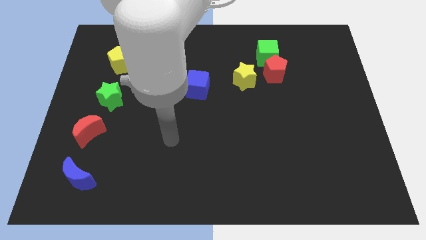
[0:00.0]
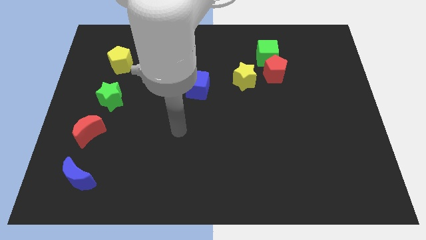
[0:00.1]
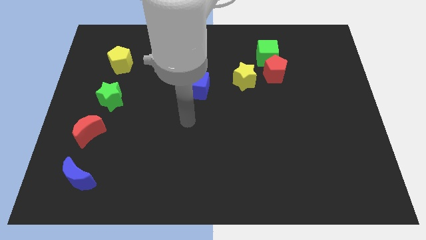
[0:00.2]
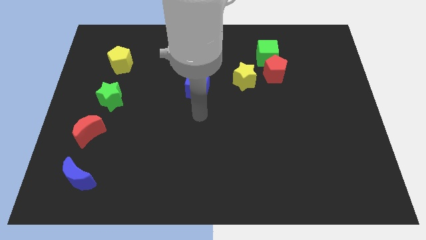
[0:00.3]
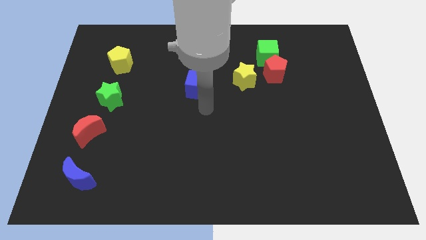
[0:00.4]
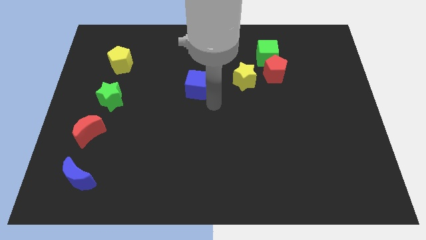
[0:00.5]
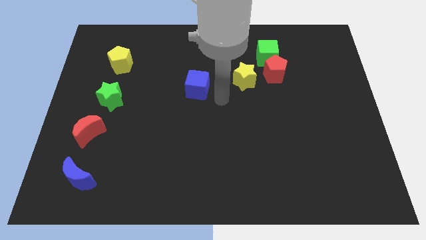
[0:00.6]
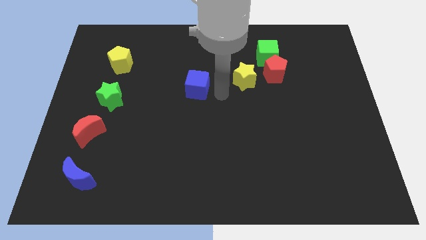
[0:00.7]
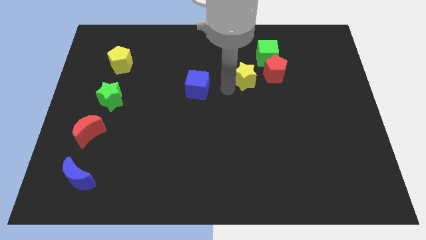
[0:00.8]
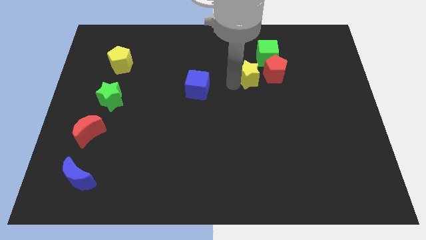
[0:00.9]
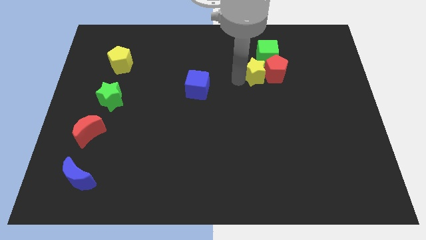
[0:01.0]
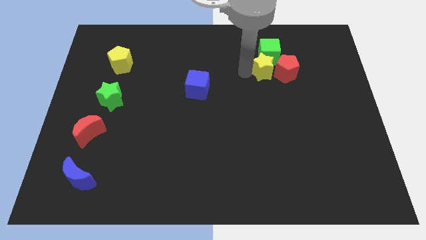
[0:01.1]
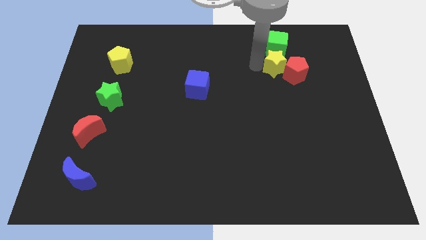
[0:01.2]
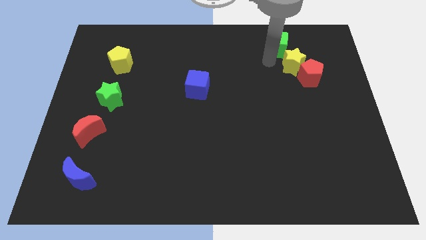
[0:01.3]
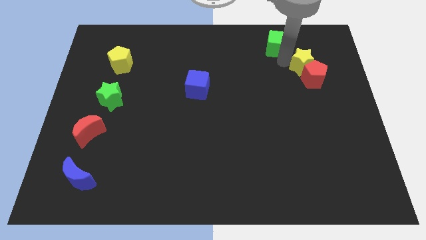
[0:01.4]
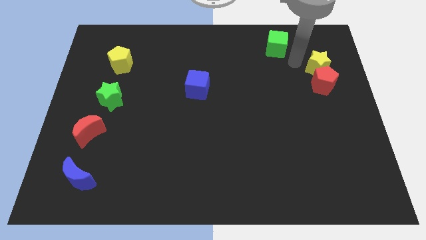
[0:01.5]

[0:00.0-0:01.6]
pull the red pentagon apart from the green cube and yellow star

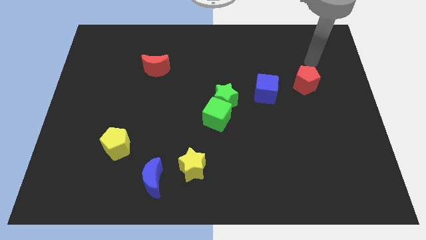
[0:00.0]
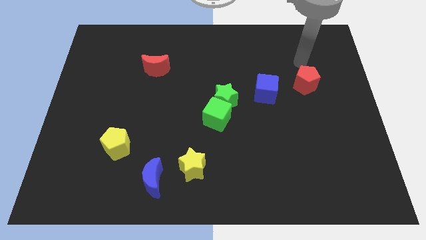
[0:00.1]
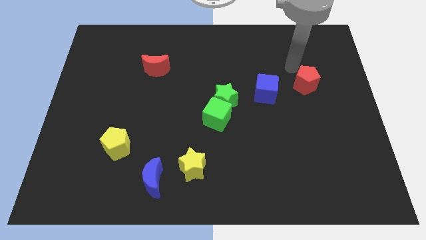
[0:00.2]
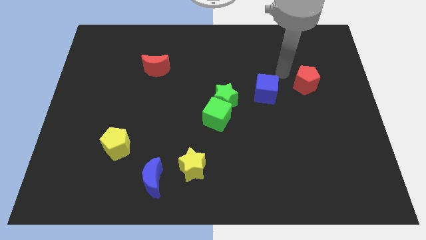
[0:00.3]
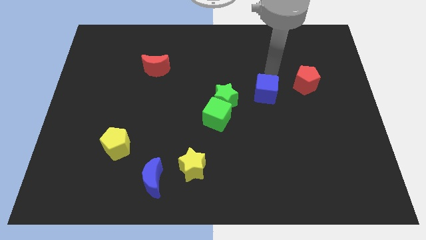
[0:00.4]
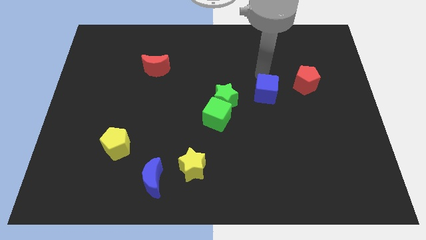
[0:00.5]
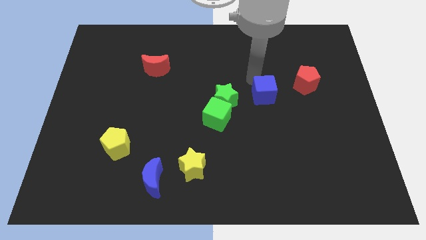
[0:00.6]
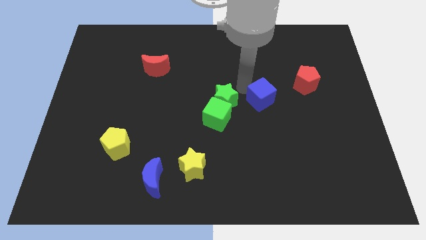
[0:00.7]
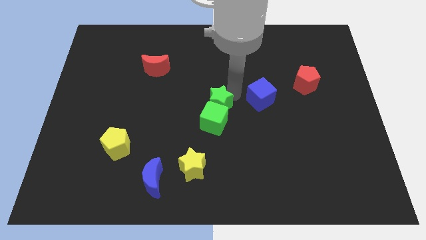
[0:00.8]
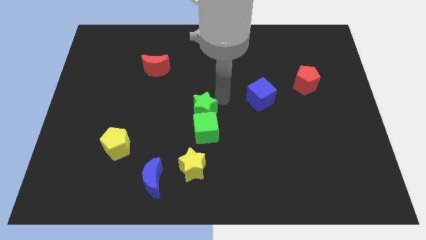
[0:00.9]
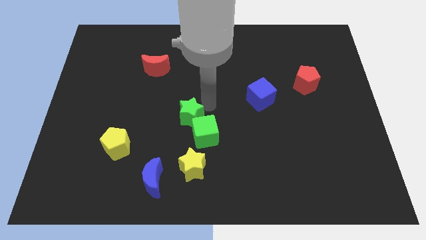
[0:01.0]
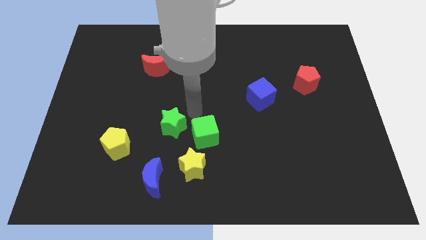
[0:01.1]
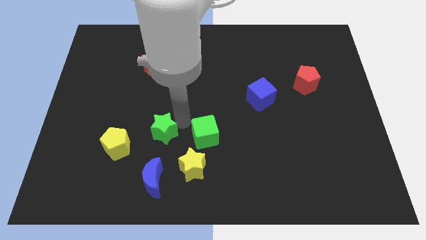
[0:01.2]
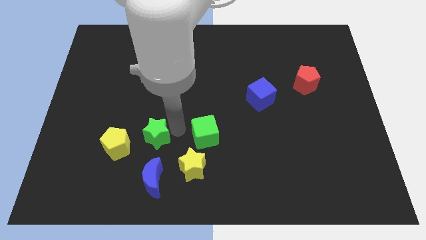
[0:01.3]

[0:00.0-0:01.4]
separate the green cube from the green star

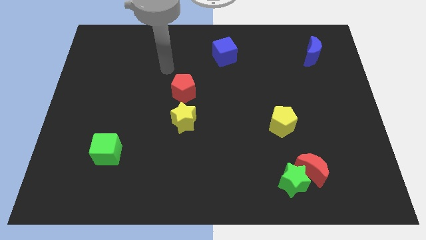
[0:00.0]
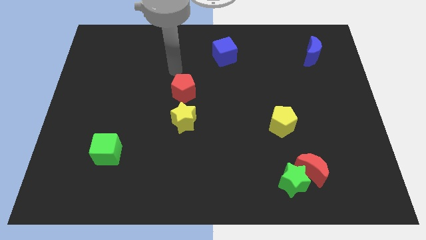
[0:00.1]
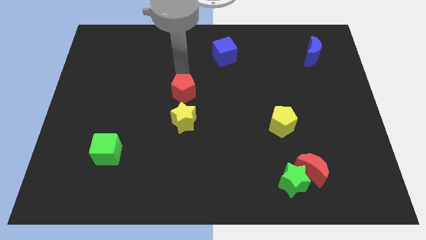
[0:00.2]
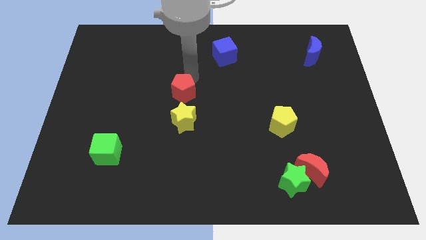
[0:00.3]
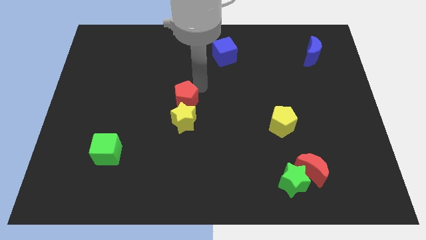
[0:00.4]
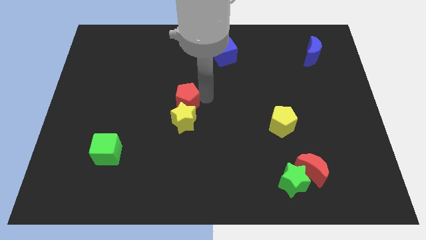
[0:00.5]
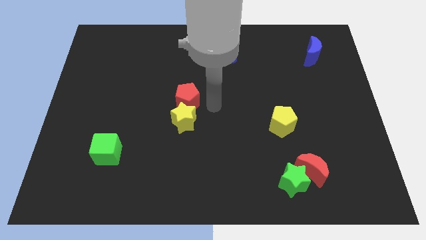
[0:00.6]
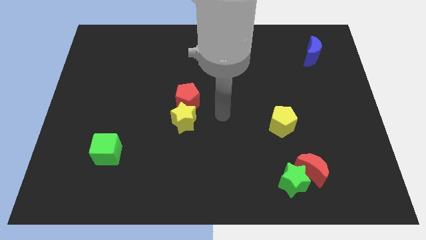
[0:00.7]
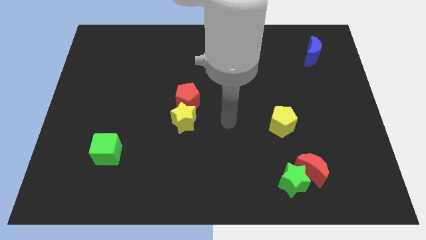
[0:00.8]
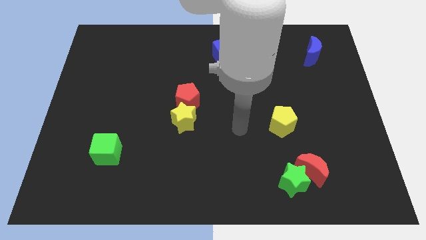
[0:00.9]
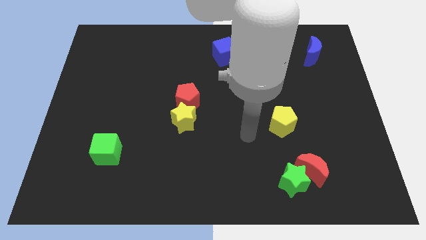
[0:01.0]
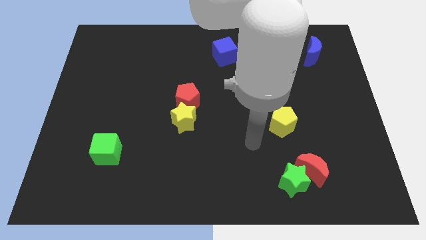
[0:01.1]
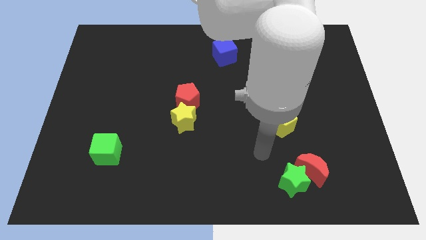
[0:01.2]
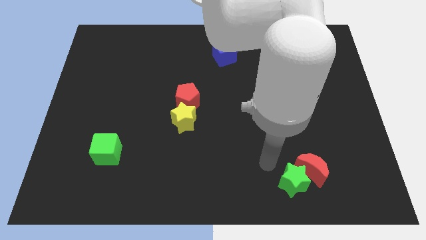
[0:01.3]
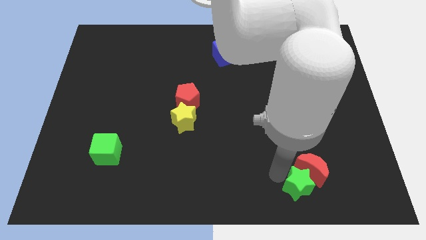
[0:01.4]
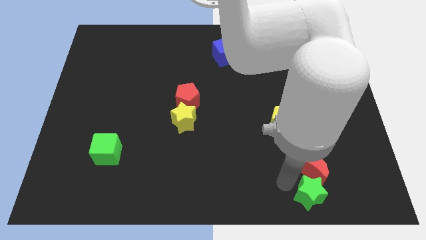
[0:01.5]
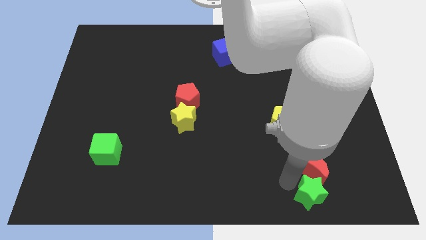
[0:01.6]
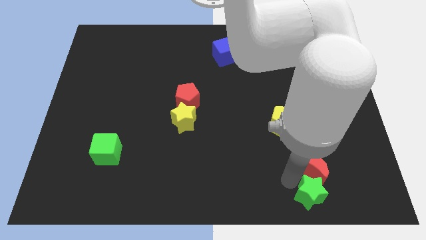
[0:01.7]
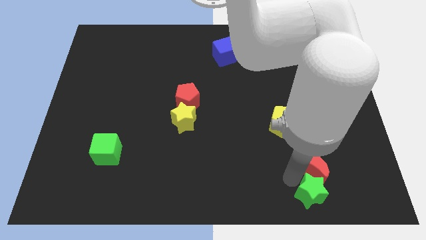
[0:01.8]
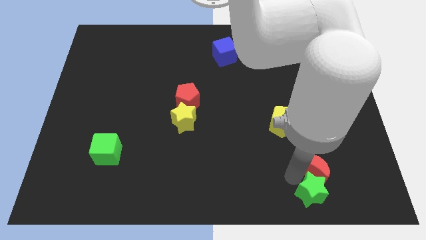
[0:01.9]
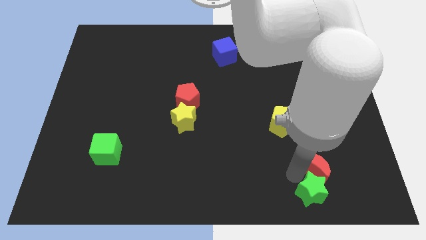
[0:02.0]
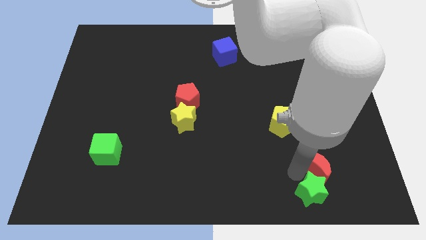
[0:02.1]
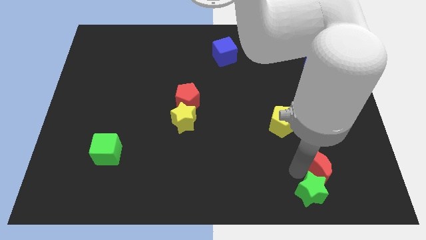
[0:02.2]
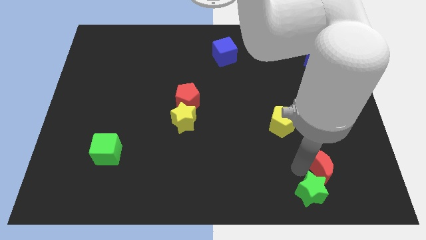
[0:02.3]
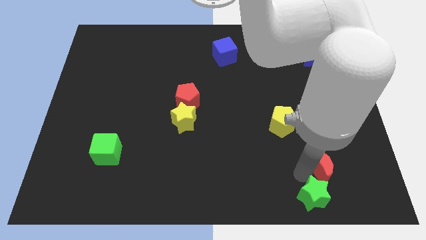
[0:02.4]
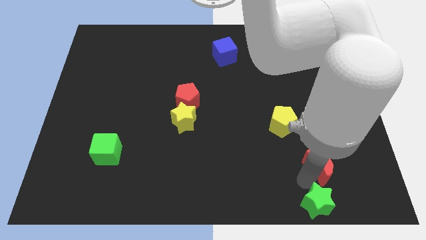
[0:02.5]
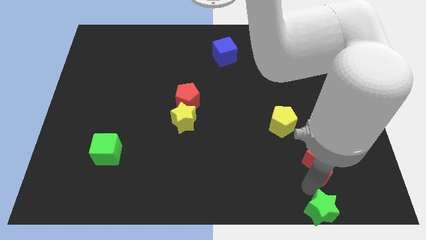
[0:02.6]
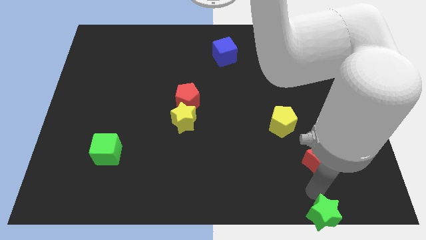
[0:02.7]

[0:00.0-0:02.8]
move the red moon away from the green star

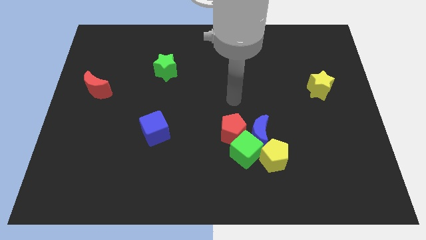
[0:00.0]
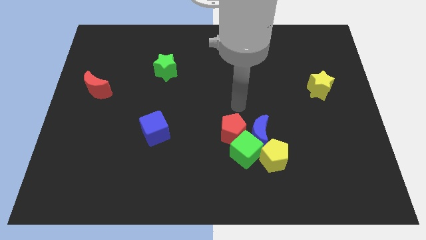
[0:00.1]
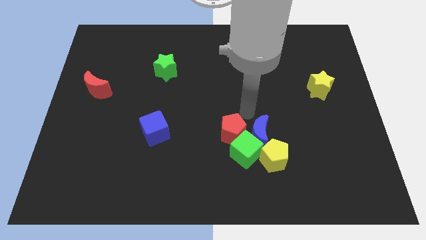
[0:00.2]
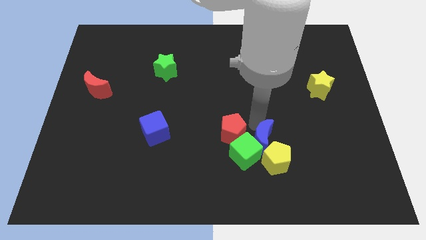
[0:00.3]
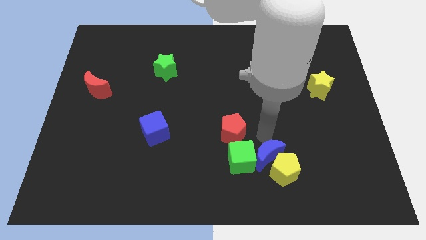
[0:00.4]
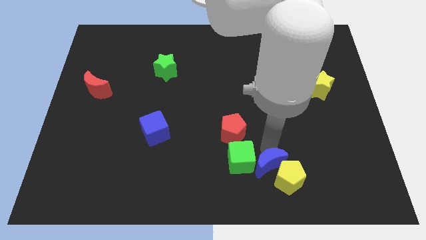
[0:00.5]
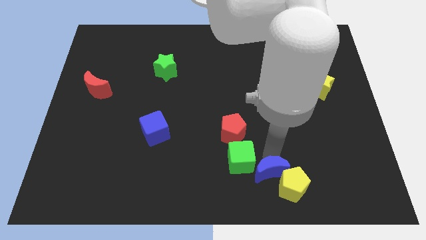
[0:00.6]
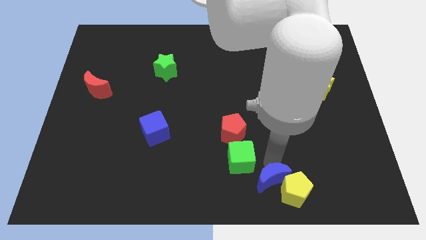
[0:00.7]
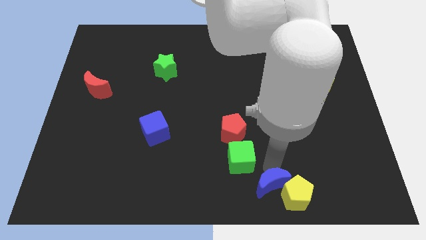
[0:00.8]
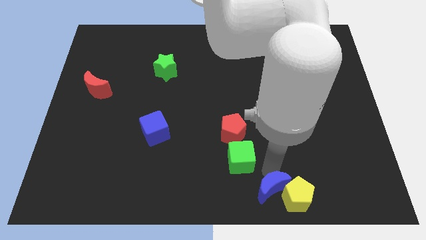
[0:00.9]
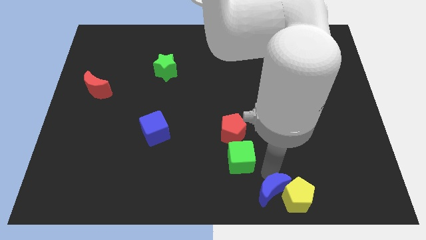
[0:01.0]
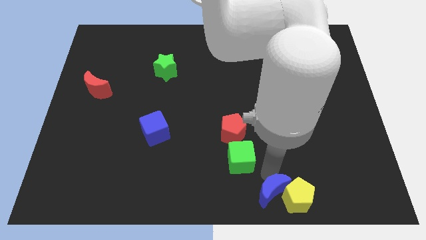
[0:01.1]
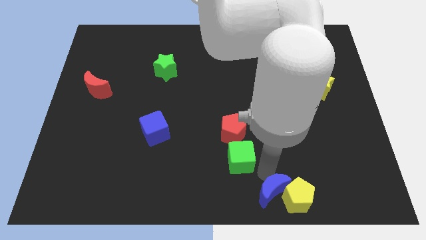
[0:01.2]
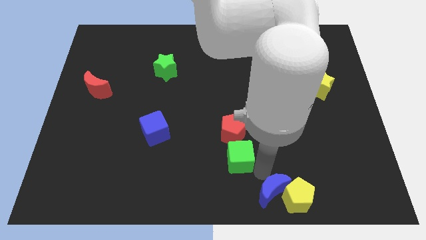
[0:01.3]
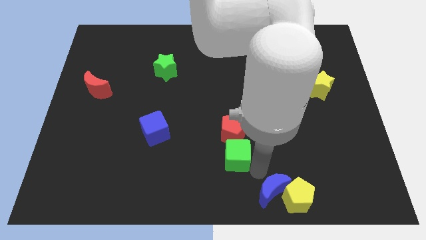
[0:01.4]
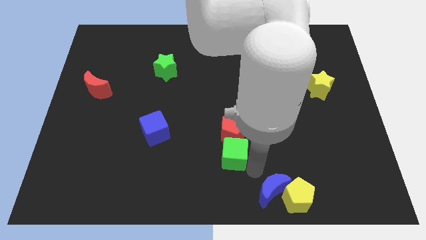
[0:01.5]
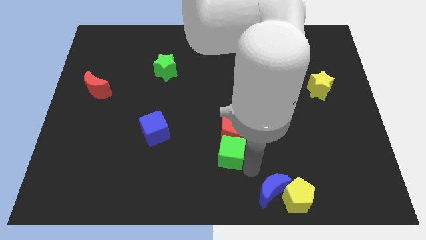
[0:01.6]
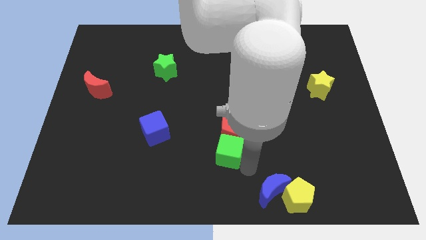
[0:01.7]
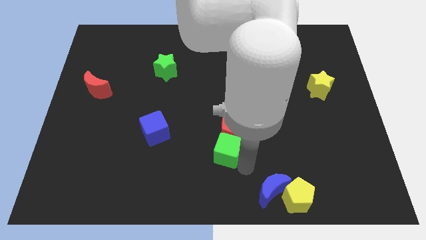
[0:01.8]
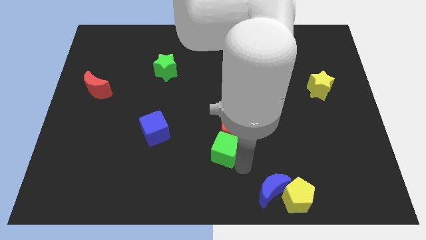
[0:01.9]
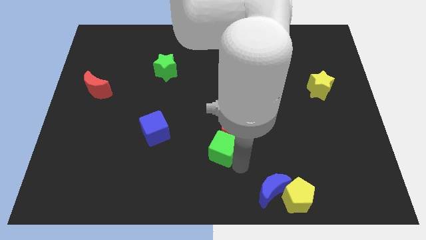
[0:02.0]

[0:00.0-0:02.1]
pull the green cube apart from the blue moon, red pentagon, and yellow pentagon

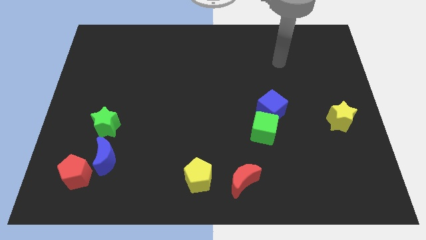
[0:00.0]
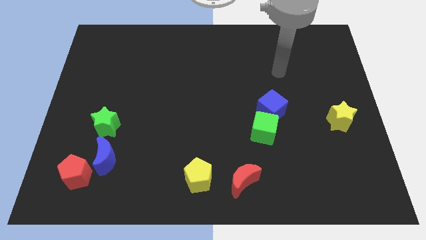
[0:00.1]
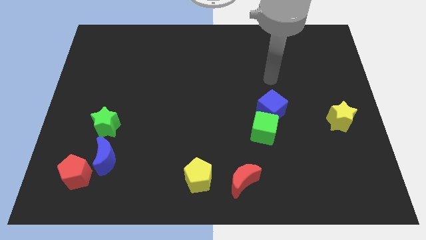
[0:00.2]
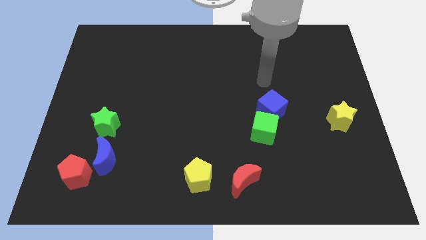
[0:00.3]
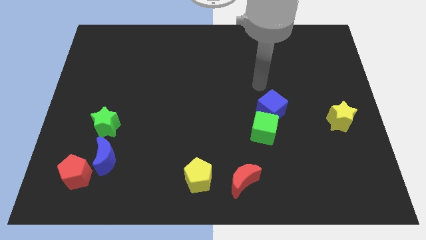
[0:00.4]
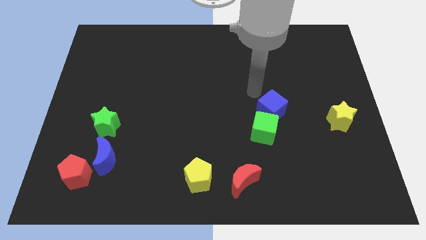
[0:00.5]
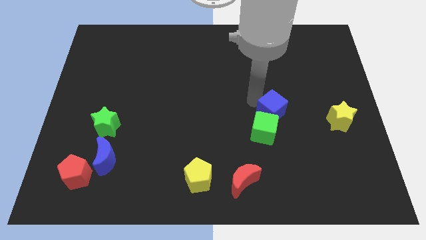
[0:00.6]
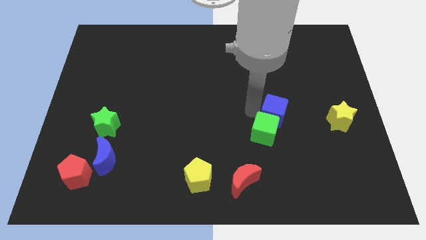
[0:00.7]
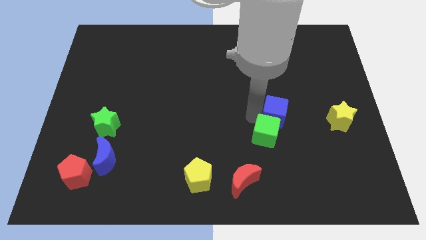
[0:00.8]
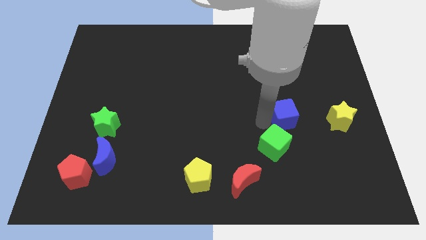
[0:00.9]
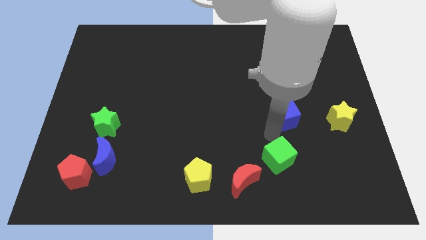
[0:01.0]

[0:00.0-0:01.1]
pull the blue cube apart from the green cube

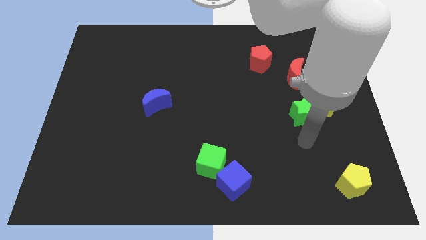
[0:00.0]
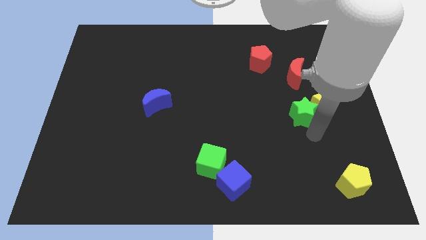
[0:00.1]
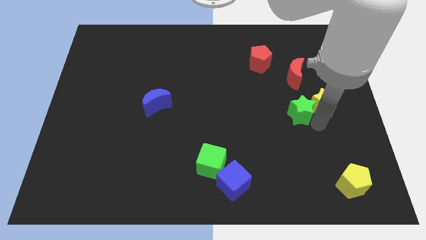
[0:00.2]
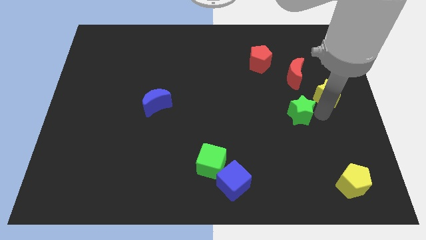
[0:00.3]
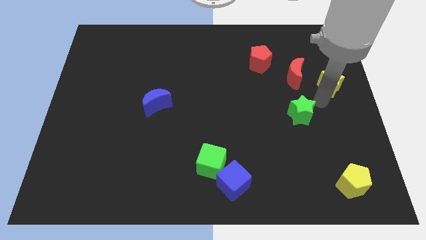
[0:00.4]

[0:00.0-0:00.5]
move the green star away from the yellow star

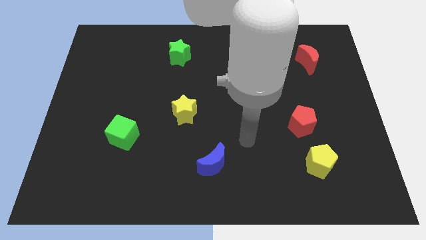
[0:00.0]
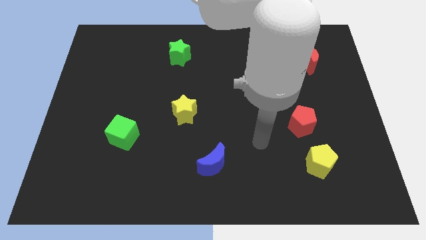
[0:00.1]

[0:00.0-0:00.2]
separate the red pentagon from the yellow pentagon
